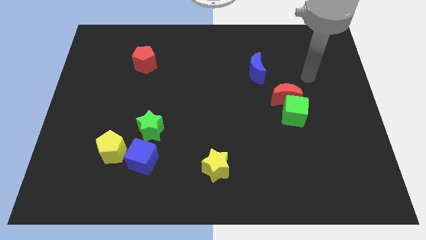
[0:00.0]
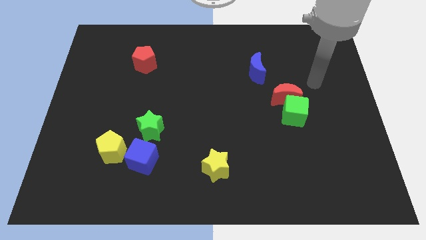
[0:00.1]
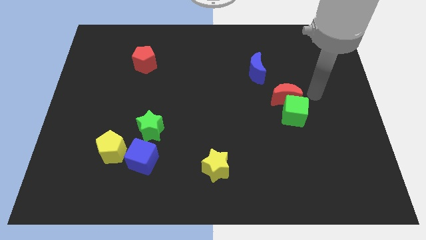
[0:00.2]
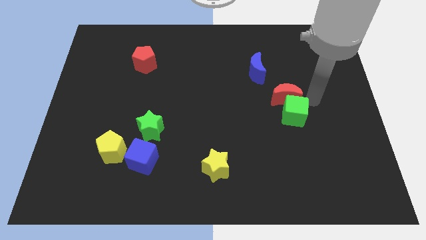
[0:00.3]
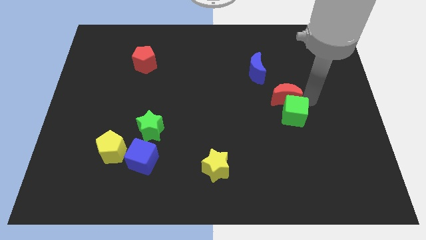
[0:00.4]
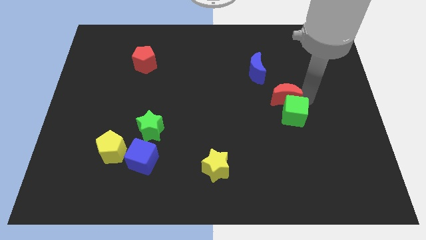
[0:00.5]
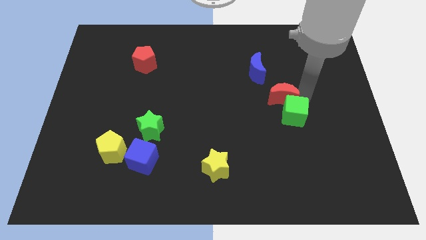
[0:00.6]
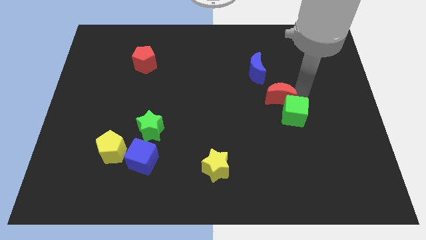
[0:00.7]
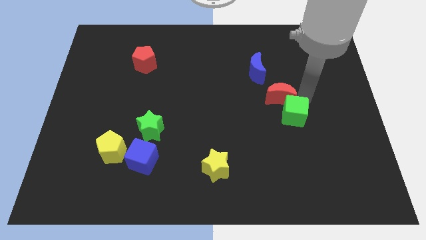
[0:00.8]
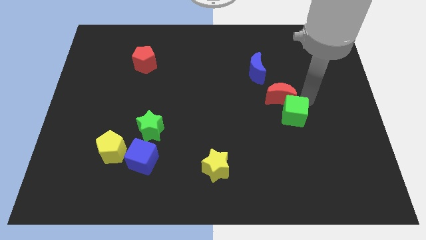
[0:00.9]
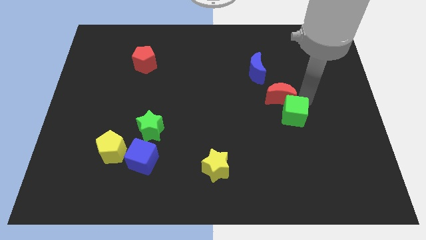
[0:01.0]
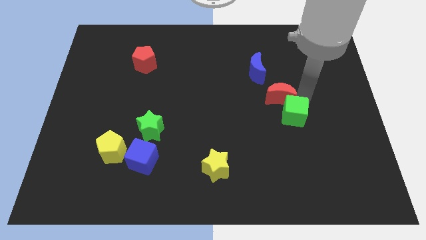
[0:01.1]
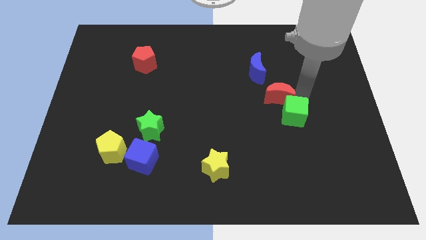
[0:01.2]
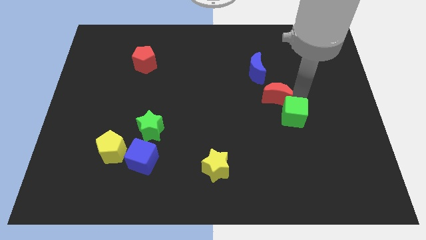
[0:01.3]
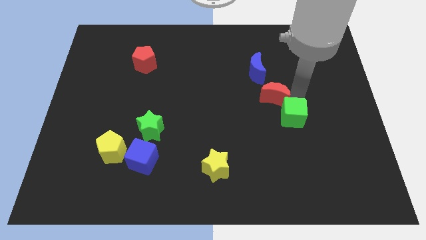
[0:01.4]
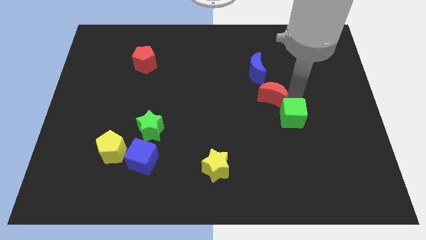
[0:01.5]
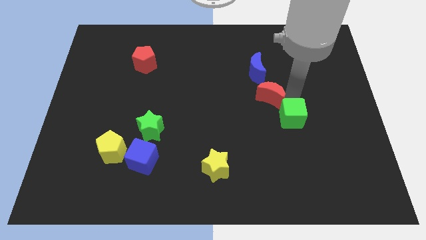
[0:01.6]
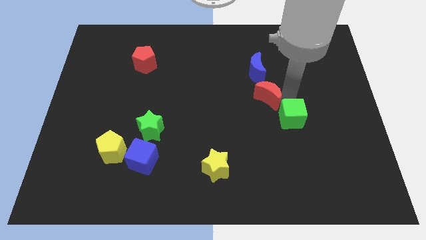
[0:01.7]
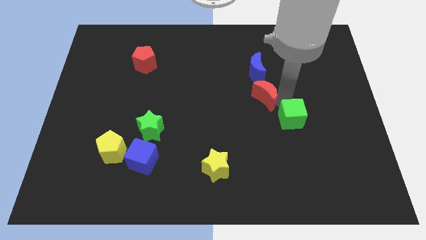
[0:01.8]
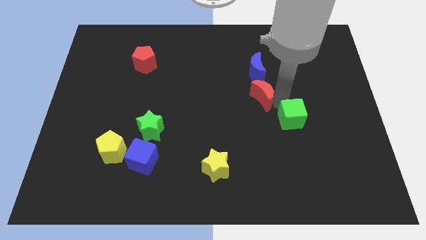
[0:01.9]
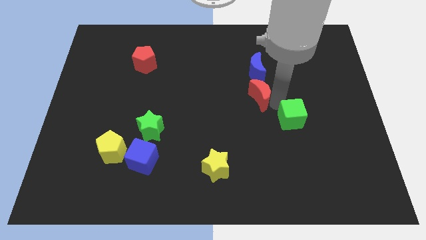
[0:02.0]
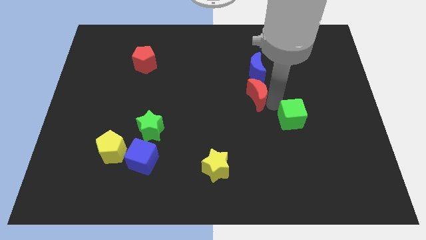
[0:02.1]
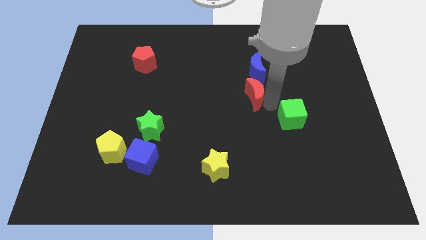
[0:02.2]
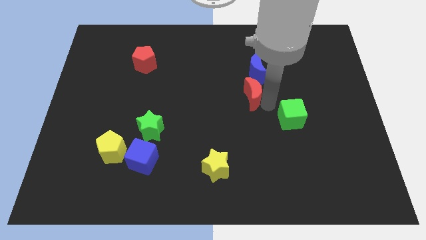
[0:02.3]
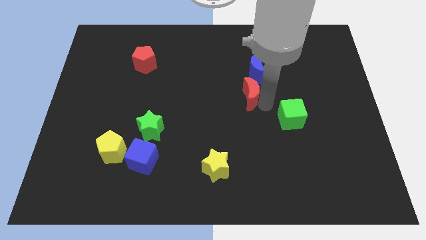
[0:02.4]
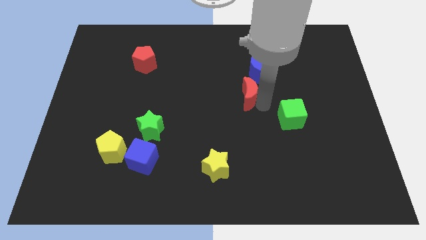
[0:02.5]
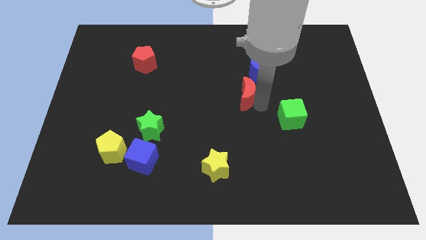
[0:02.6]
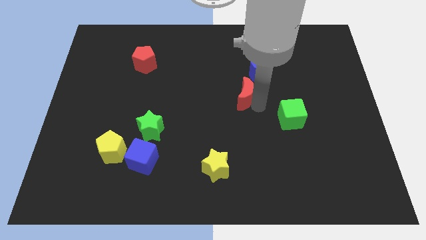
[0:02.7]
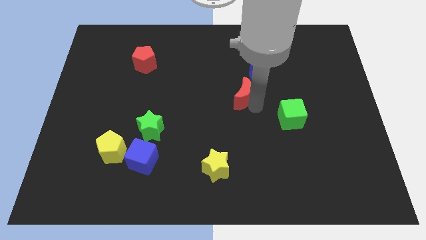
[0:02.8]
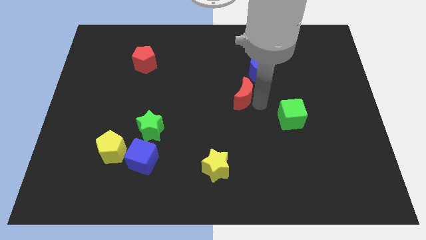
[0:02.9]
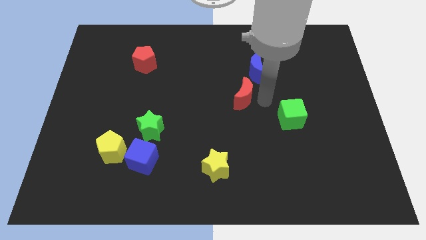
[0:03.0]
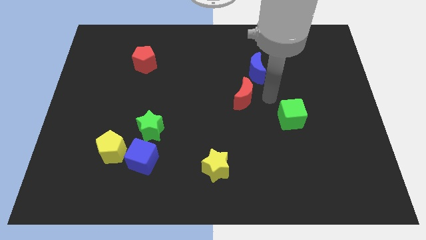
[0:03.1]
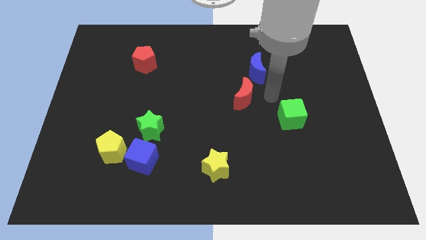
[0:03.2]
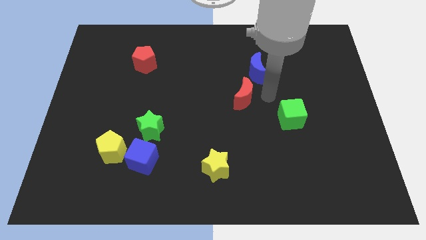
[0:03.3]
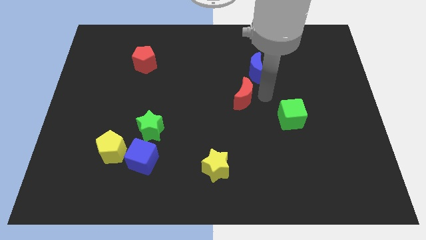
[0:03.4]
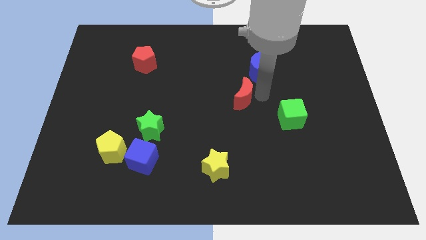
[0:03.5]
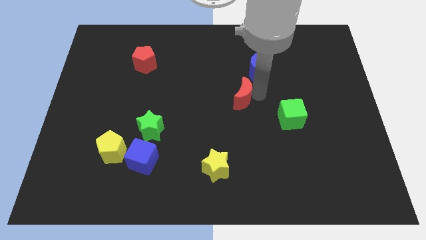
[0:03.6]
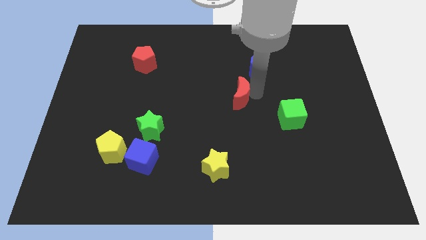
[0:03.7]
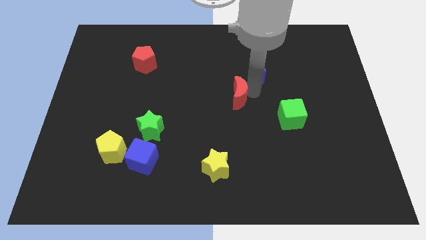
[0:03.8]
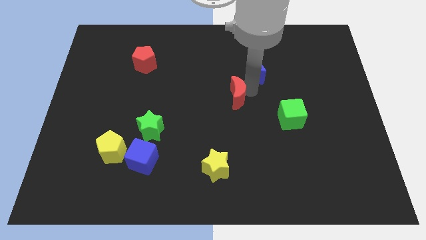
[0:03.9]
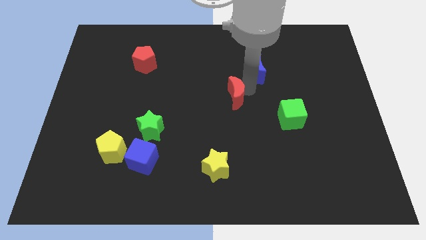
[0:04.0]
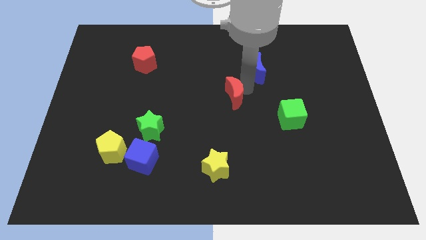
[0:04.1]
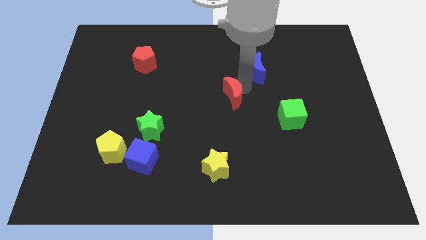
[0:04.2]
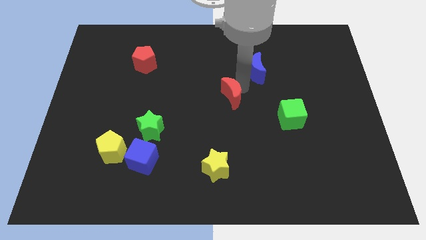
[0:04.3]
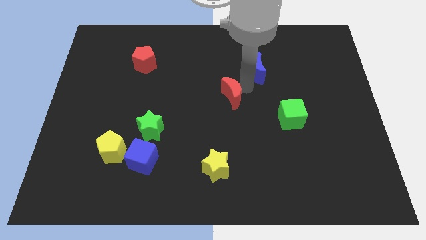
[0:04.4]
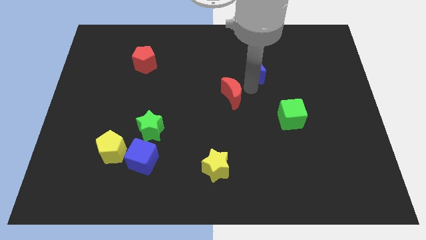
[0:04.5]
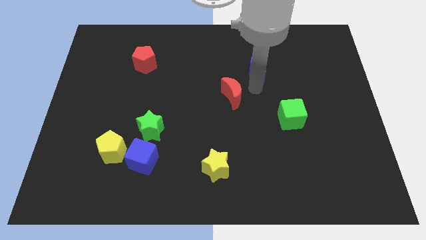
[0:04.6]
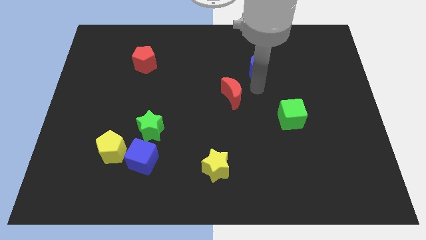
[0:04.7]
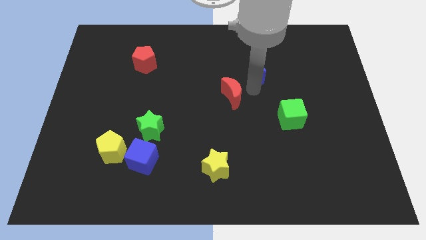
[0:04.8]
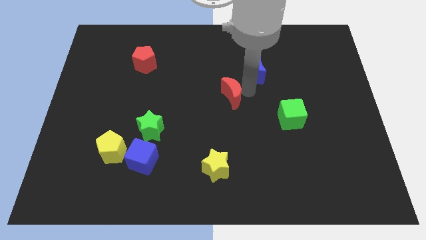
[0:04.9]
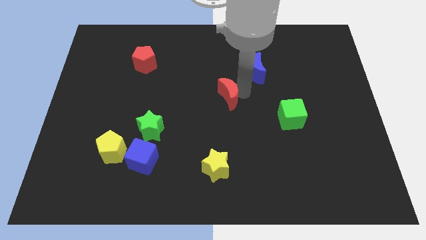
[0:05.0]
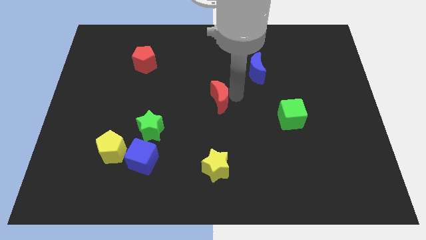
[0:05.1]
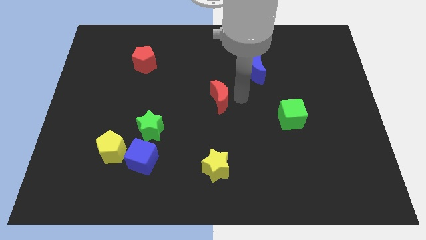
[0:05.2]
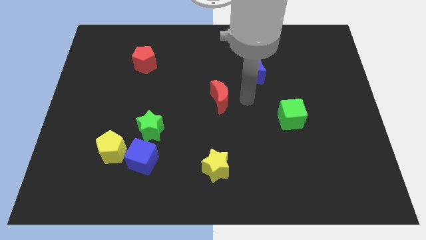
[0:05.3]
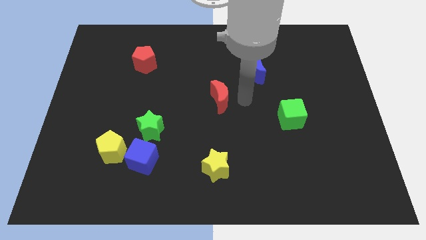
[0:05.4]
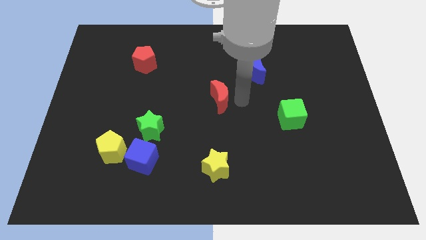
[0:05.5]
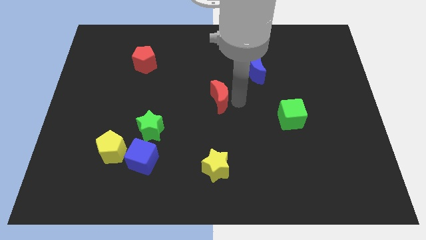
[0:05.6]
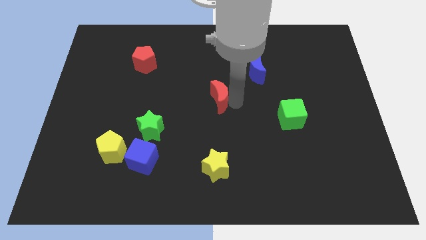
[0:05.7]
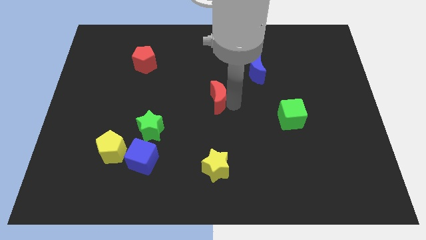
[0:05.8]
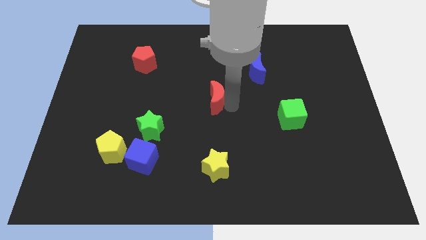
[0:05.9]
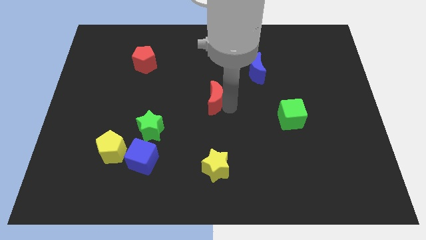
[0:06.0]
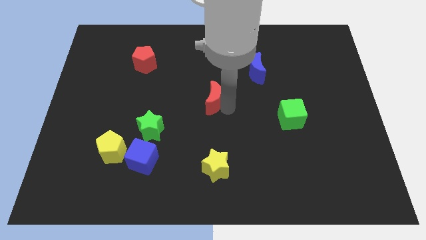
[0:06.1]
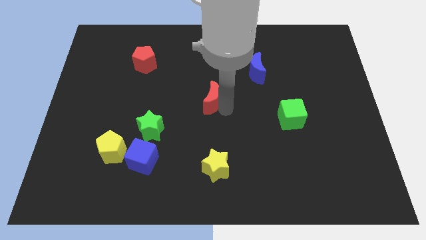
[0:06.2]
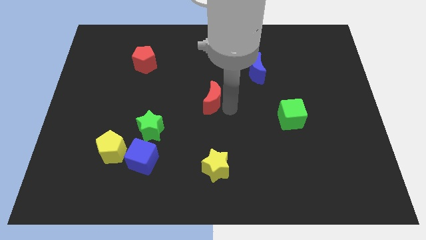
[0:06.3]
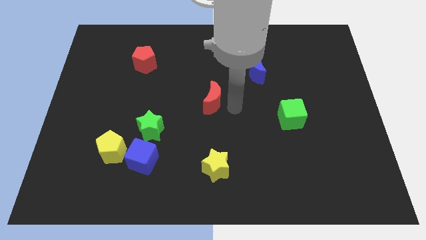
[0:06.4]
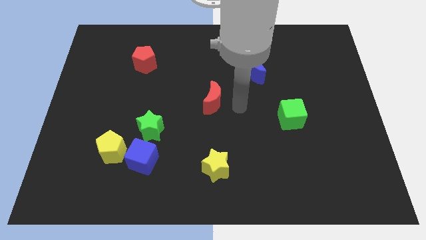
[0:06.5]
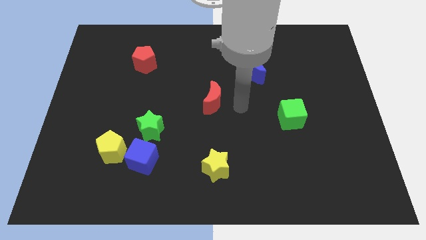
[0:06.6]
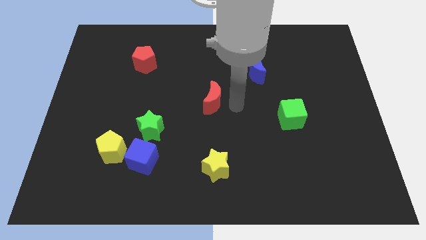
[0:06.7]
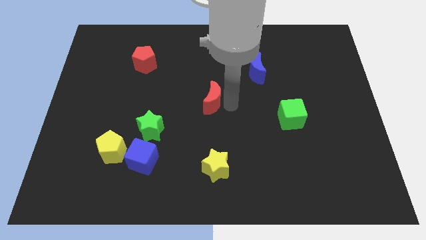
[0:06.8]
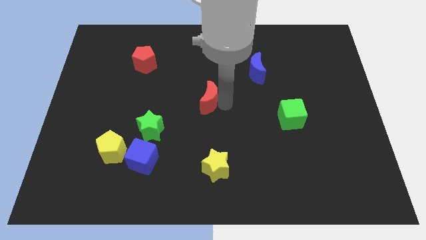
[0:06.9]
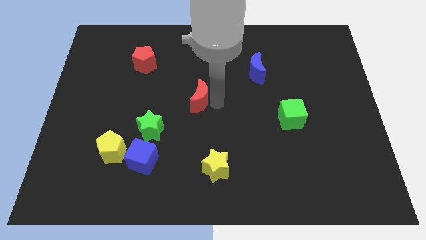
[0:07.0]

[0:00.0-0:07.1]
move the red moon left

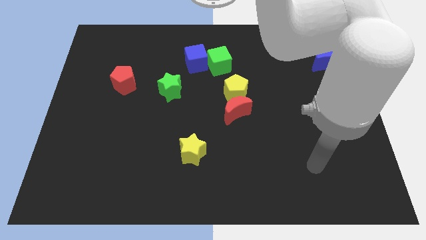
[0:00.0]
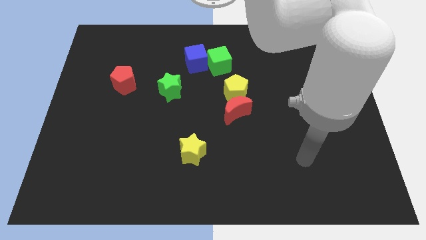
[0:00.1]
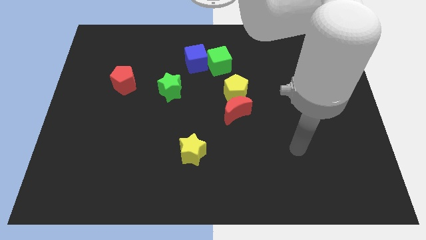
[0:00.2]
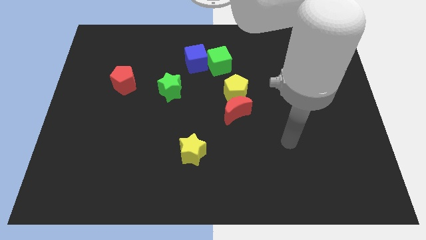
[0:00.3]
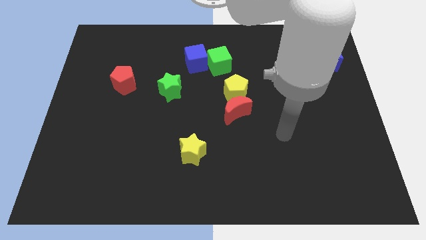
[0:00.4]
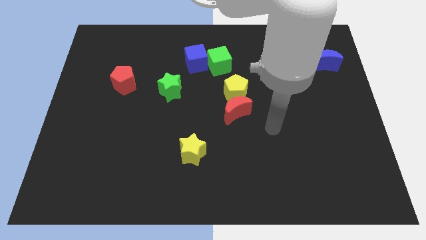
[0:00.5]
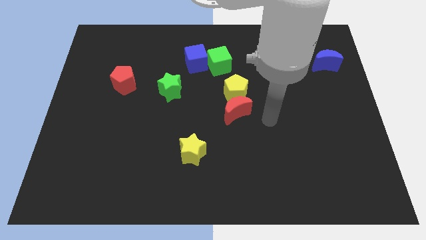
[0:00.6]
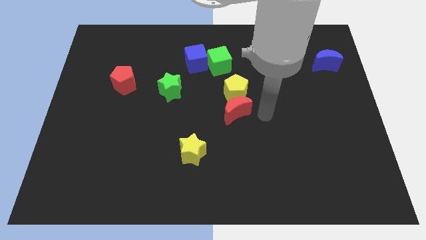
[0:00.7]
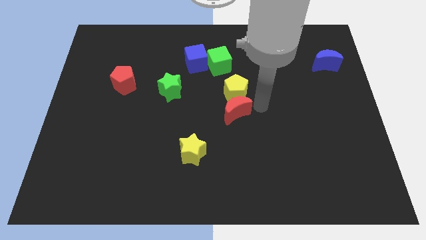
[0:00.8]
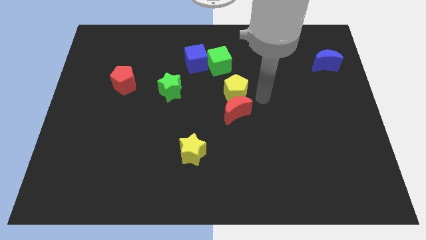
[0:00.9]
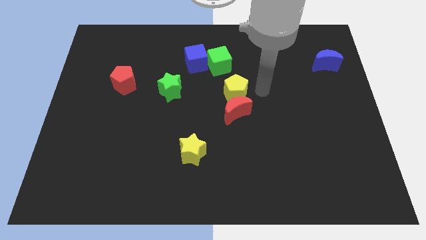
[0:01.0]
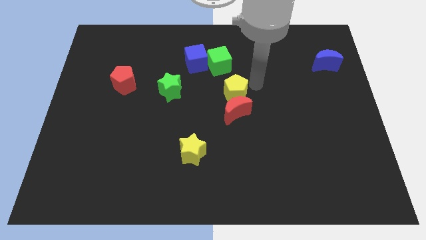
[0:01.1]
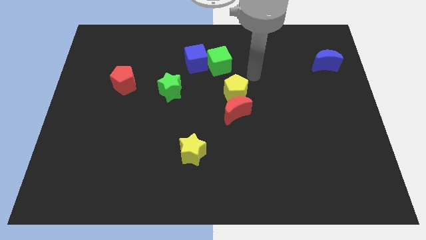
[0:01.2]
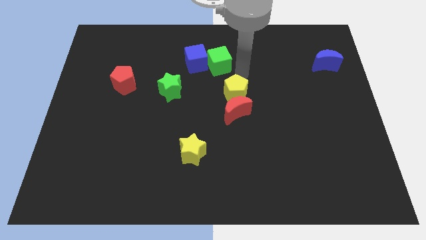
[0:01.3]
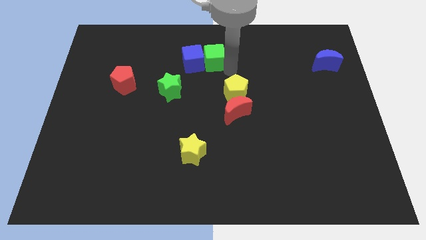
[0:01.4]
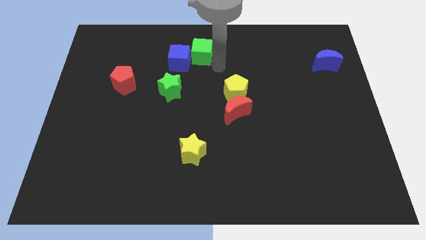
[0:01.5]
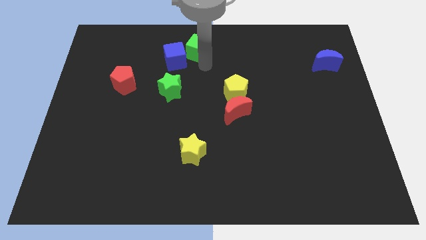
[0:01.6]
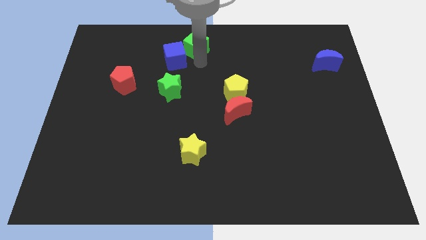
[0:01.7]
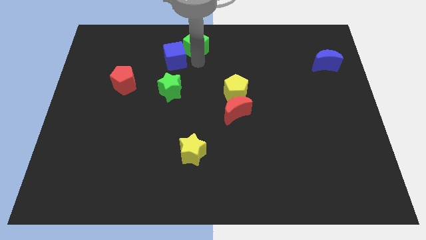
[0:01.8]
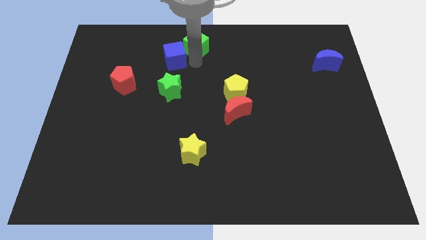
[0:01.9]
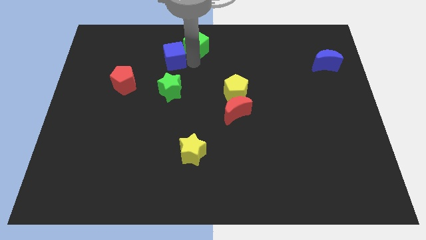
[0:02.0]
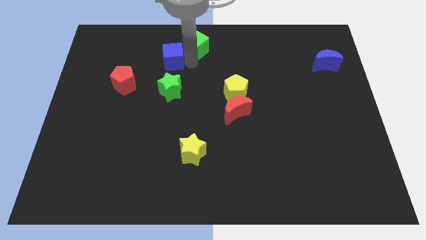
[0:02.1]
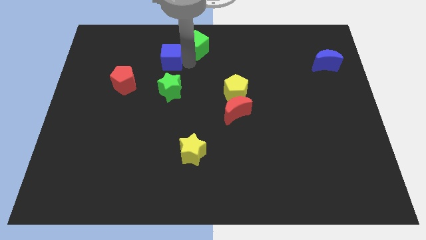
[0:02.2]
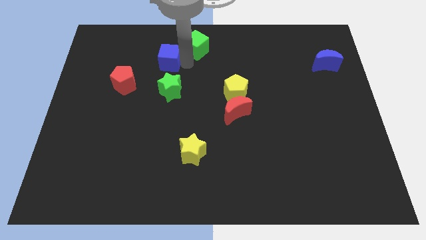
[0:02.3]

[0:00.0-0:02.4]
slightly push the blue cube left
